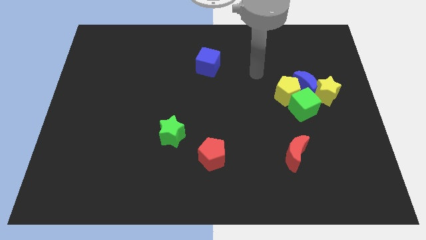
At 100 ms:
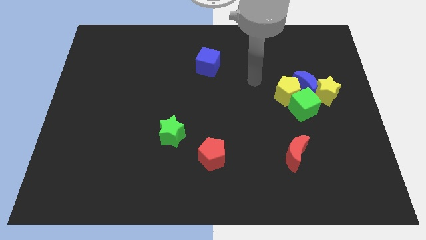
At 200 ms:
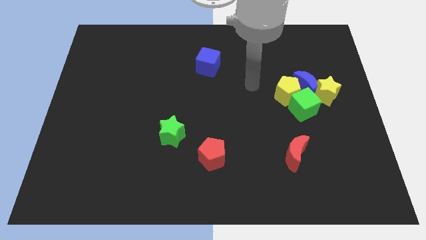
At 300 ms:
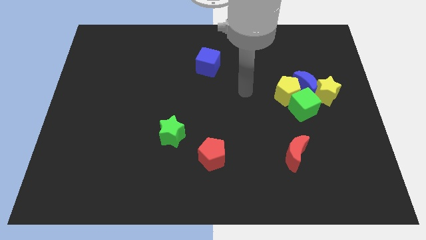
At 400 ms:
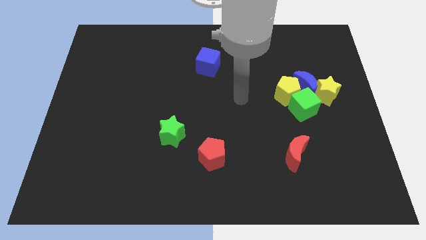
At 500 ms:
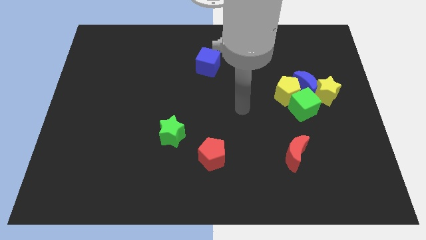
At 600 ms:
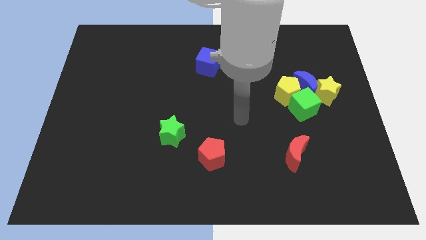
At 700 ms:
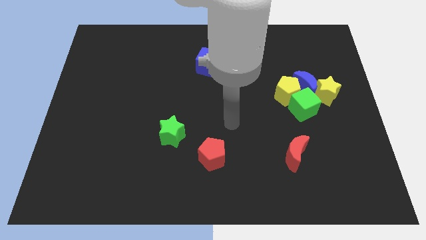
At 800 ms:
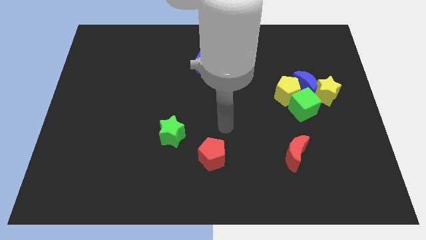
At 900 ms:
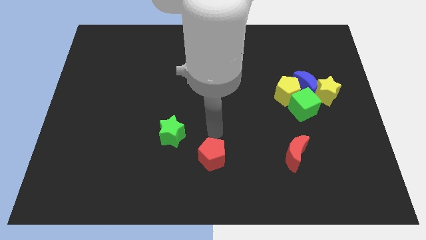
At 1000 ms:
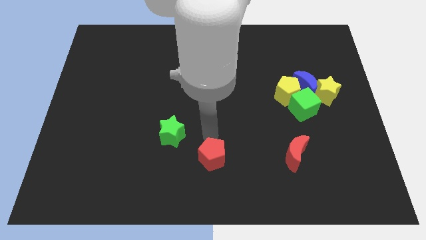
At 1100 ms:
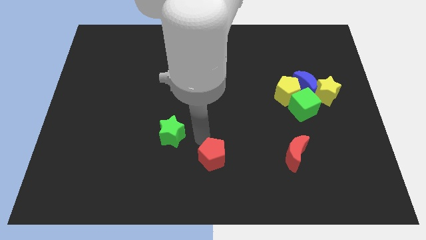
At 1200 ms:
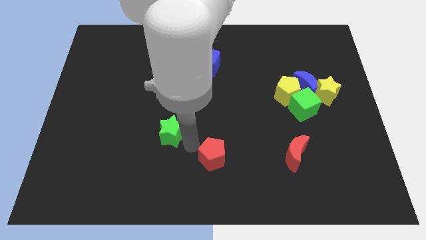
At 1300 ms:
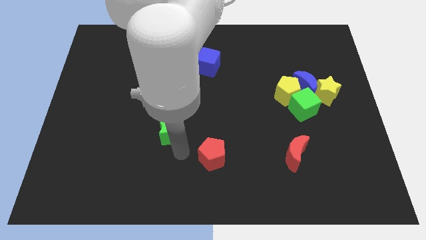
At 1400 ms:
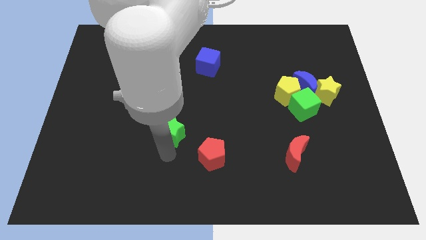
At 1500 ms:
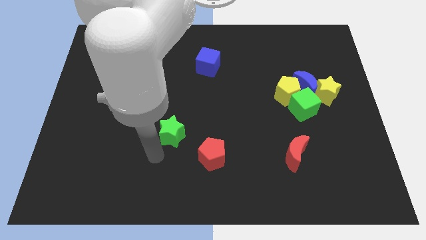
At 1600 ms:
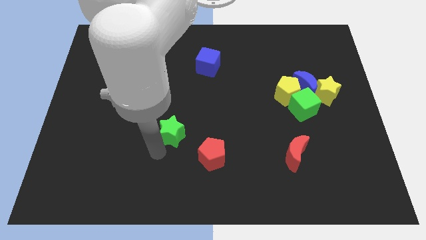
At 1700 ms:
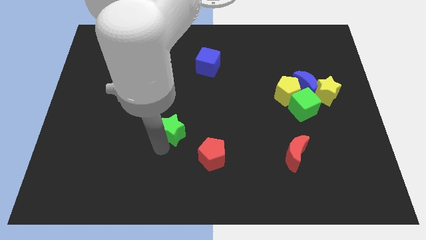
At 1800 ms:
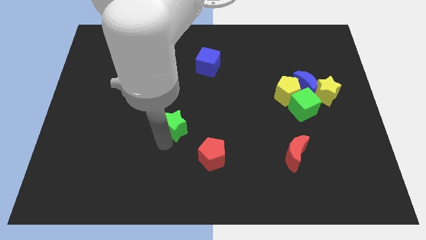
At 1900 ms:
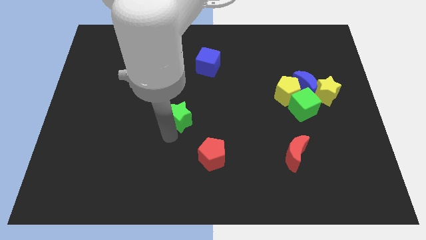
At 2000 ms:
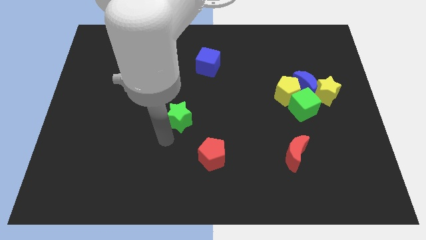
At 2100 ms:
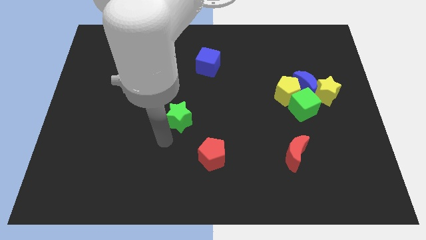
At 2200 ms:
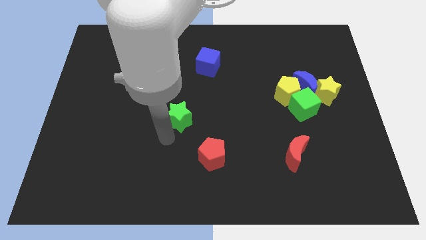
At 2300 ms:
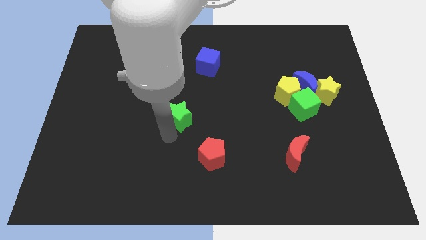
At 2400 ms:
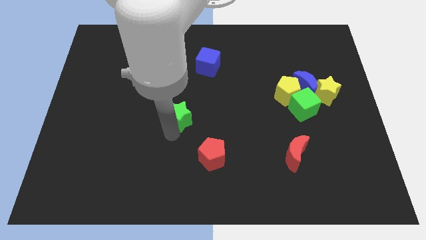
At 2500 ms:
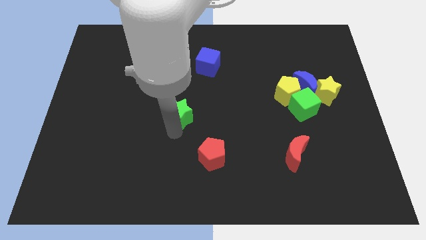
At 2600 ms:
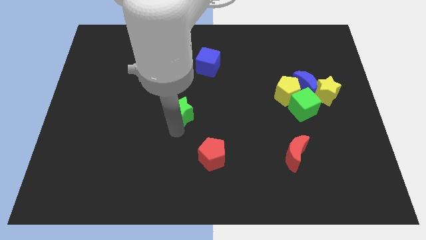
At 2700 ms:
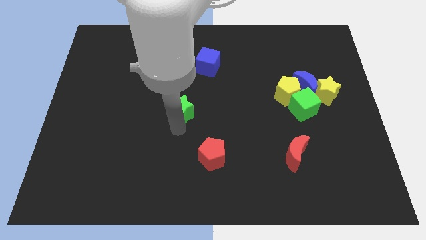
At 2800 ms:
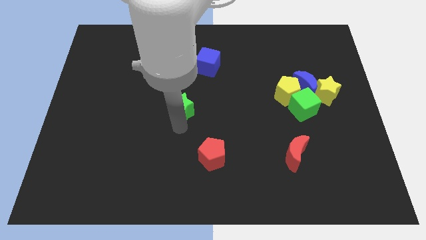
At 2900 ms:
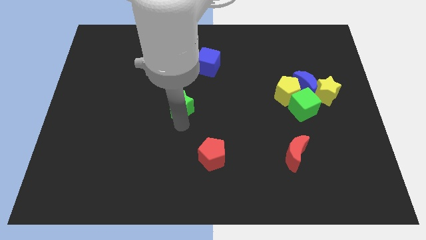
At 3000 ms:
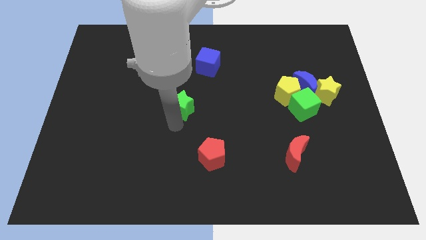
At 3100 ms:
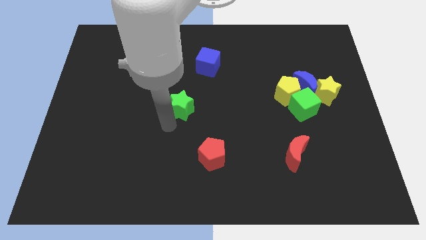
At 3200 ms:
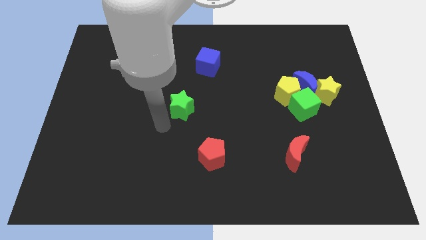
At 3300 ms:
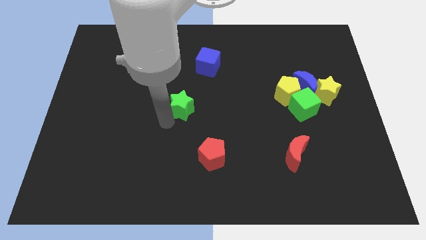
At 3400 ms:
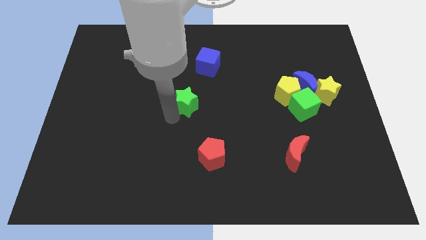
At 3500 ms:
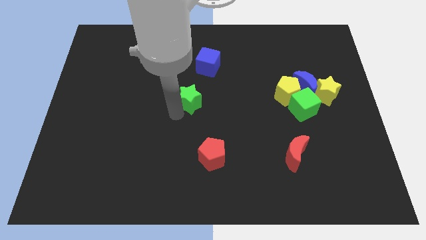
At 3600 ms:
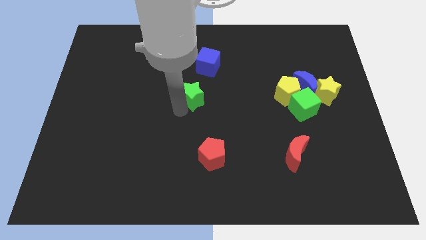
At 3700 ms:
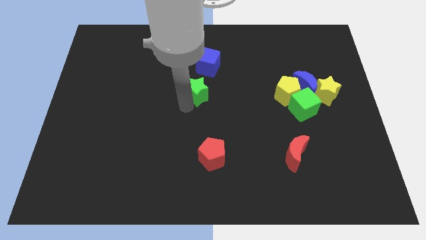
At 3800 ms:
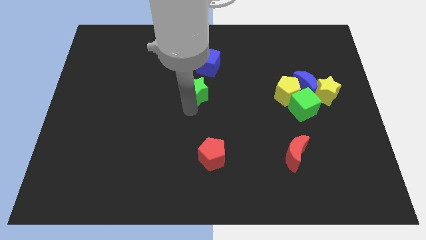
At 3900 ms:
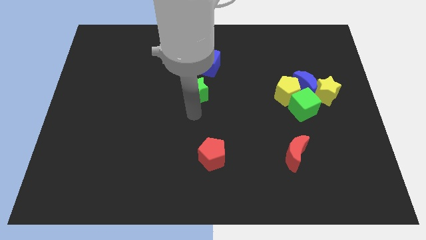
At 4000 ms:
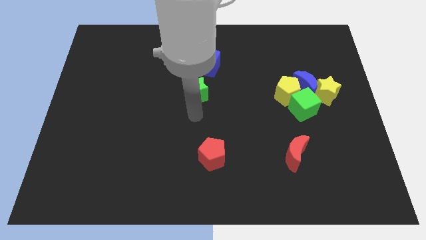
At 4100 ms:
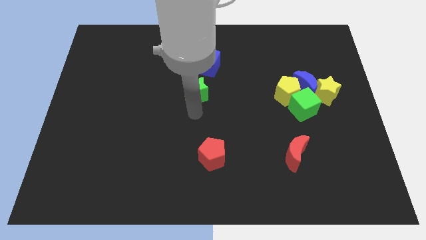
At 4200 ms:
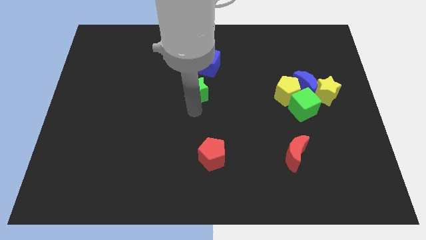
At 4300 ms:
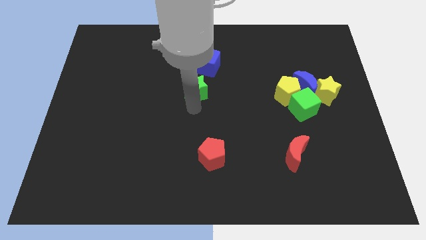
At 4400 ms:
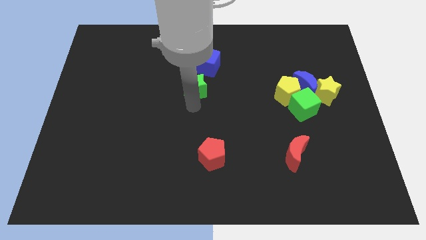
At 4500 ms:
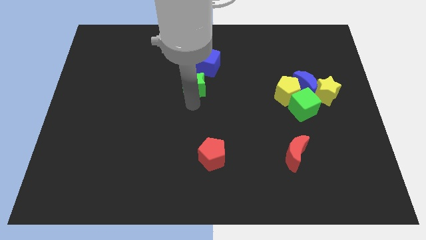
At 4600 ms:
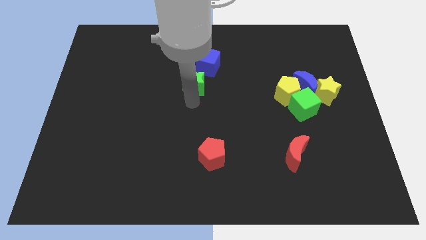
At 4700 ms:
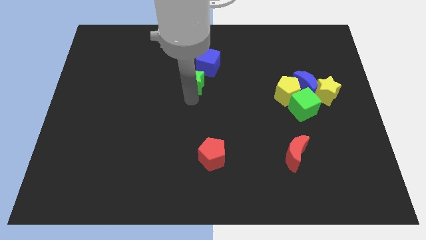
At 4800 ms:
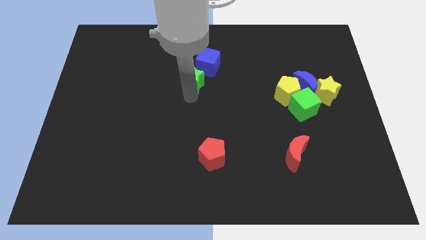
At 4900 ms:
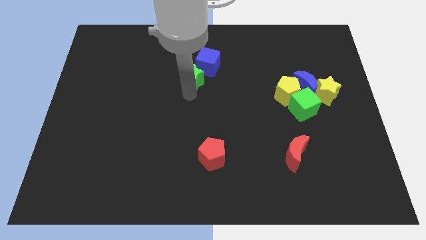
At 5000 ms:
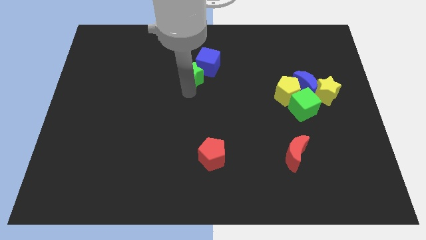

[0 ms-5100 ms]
put the green star close to the blue cube

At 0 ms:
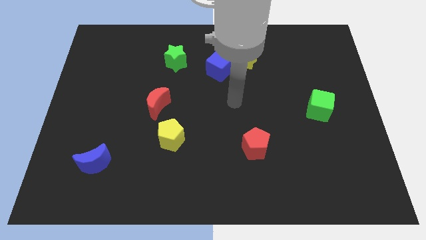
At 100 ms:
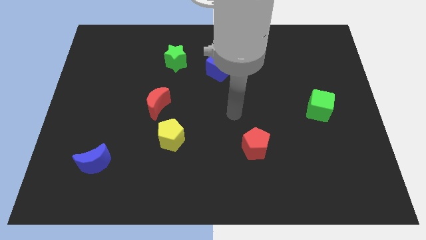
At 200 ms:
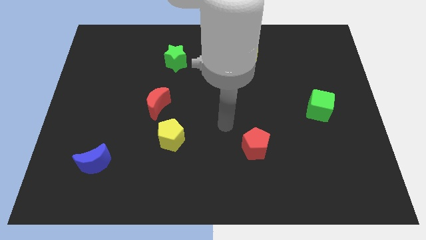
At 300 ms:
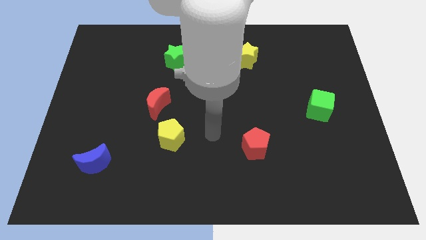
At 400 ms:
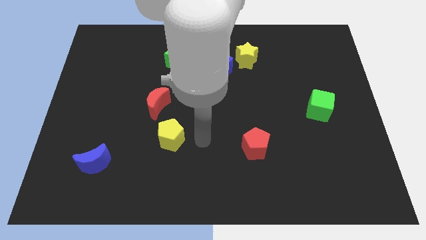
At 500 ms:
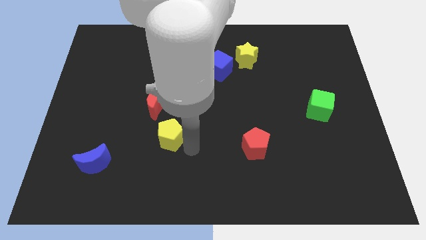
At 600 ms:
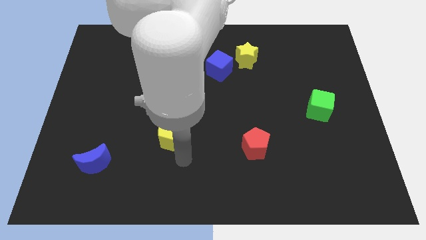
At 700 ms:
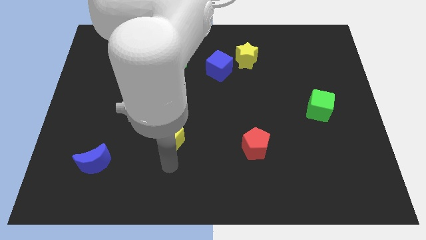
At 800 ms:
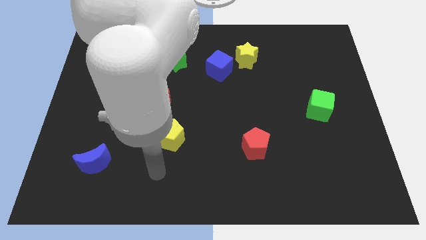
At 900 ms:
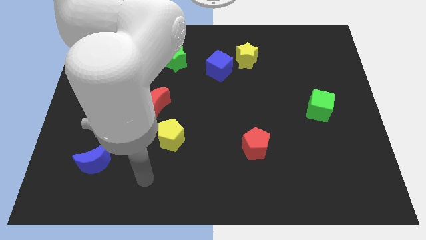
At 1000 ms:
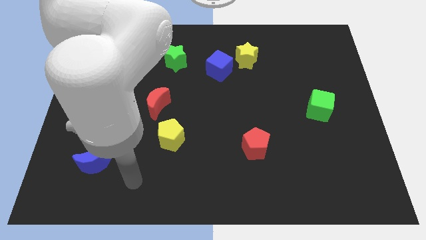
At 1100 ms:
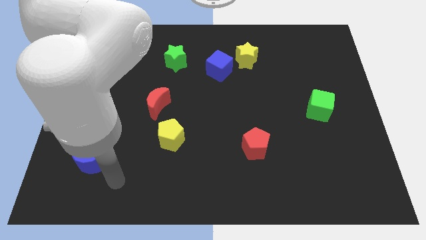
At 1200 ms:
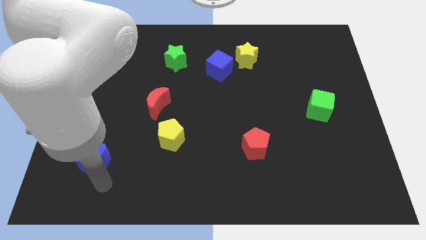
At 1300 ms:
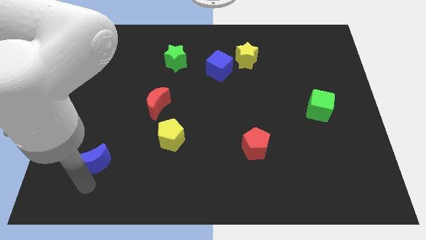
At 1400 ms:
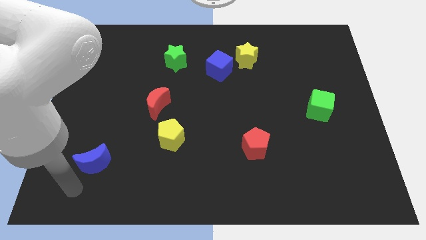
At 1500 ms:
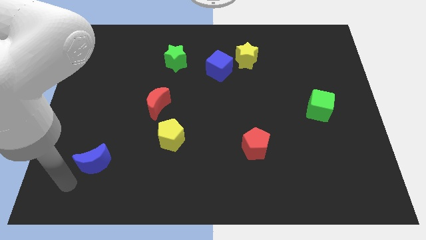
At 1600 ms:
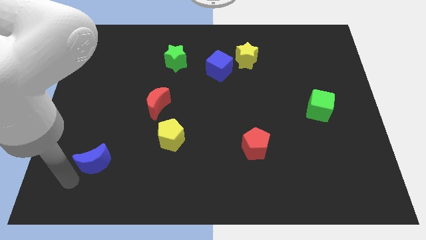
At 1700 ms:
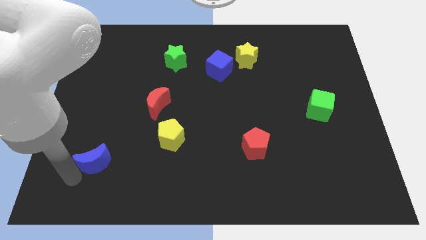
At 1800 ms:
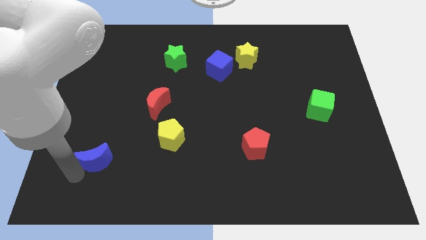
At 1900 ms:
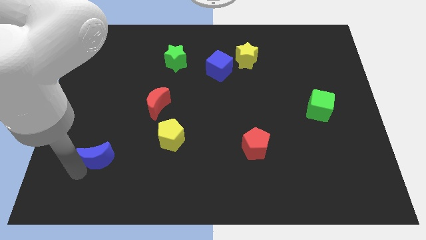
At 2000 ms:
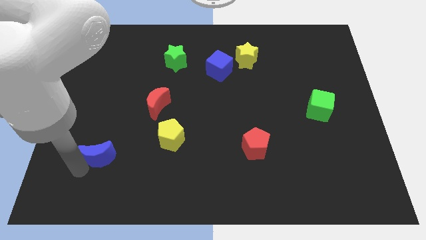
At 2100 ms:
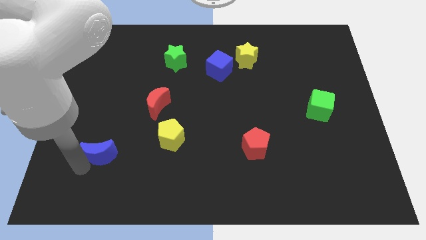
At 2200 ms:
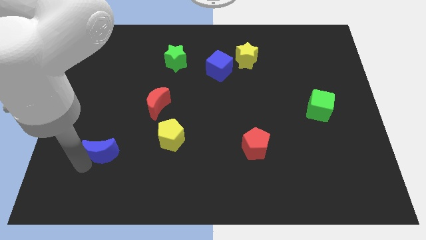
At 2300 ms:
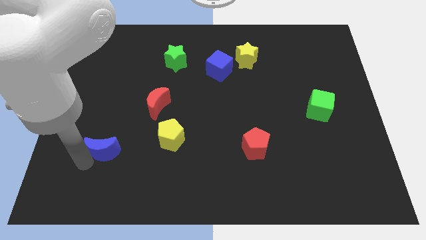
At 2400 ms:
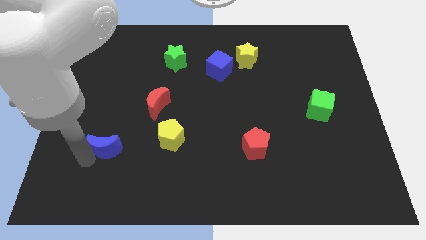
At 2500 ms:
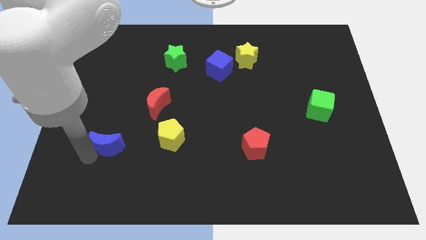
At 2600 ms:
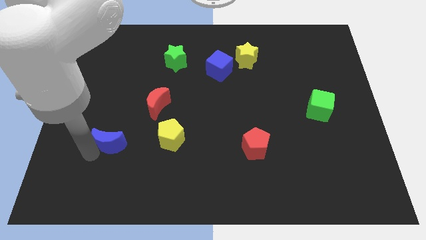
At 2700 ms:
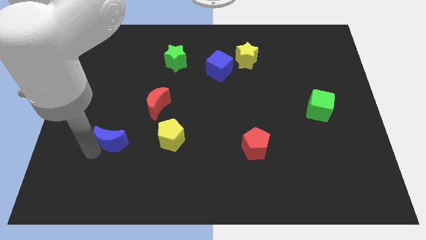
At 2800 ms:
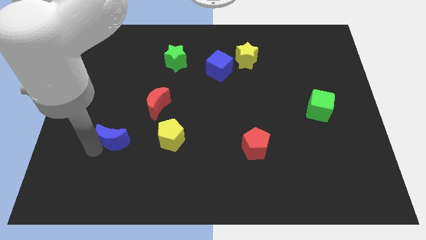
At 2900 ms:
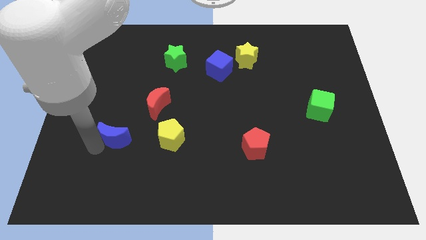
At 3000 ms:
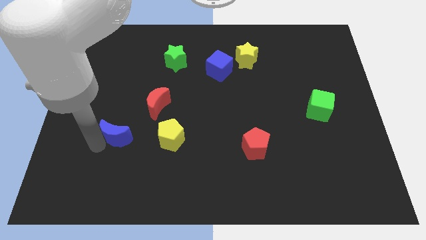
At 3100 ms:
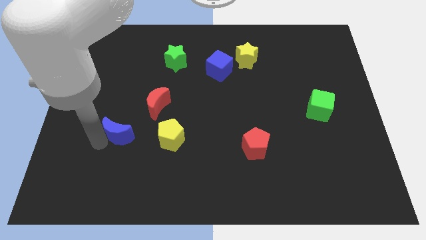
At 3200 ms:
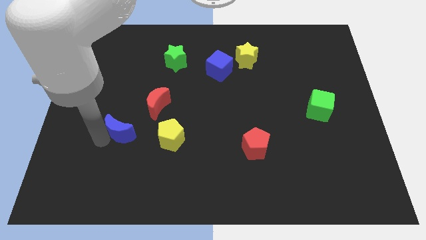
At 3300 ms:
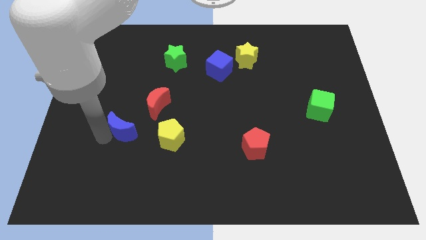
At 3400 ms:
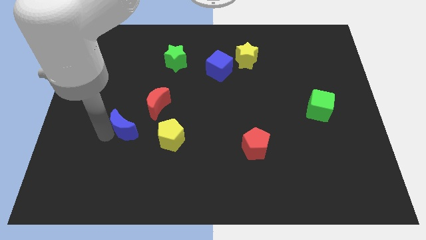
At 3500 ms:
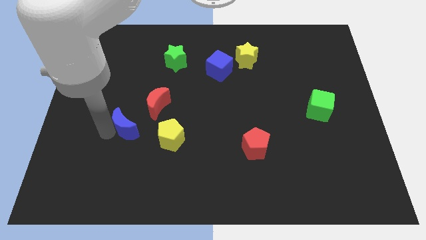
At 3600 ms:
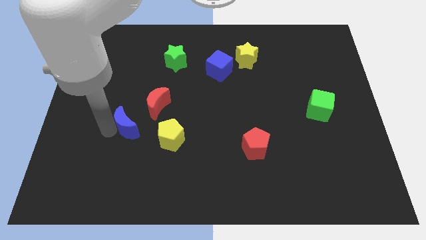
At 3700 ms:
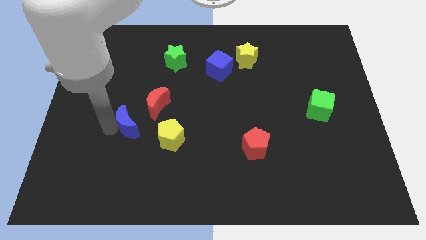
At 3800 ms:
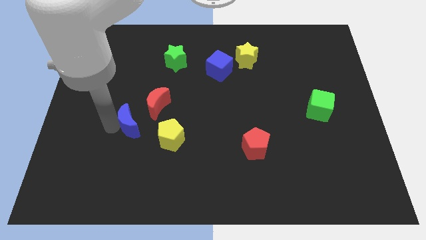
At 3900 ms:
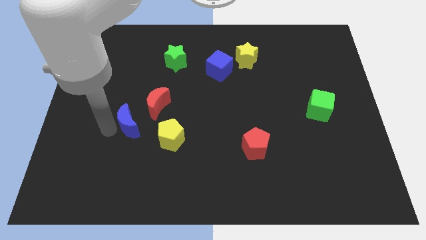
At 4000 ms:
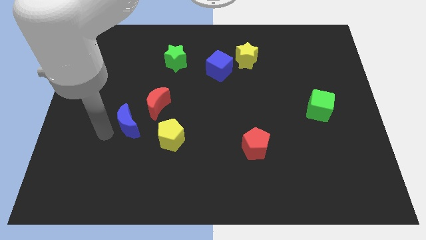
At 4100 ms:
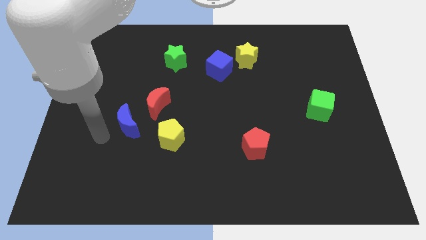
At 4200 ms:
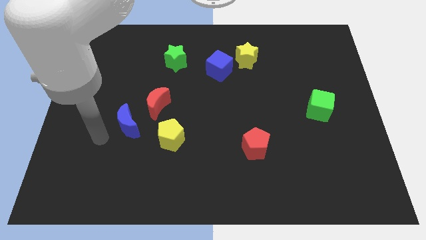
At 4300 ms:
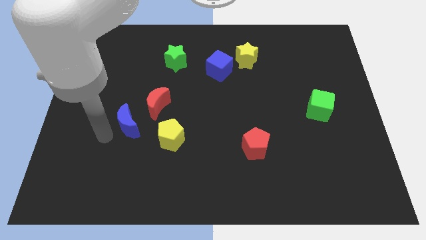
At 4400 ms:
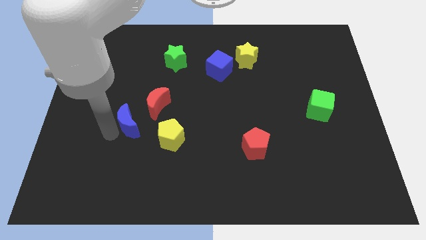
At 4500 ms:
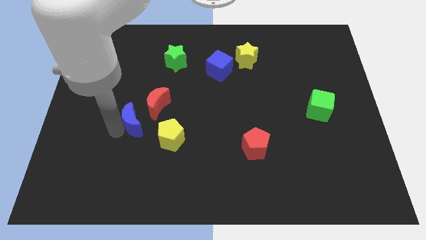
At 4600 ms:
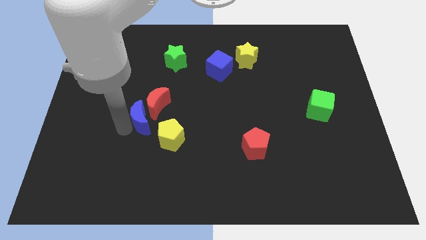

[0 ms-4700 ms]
move the blue moon towards the red moon
